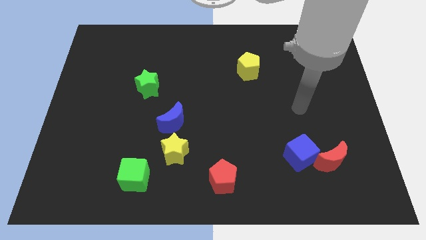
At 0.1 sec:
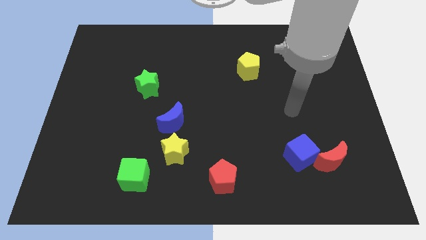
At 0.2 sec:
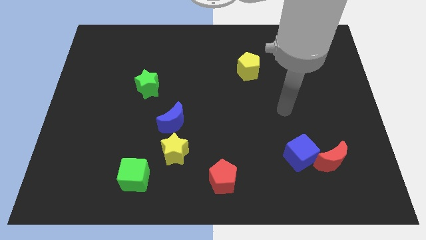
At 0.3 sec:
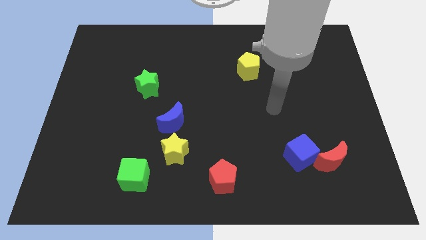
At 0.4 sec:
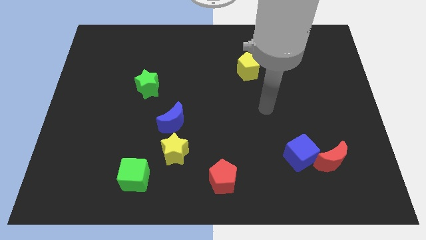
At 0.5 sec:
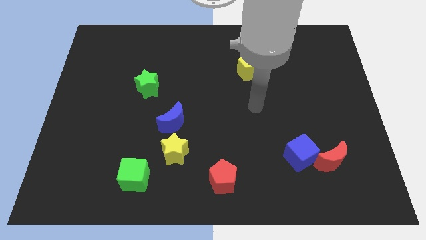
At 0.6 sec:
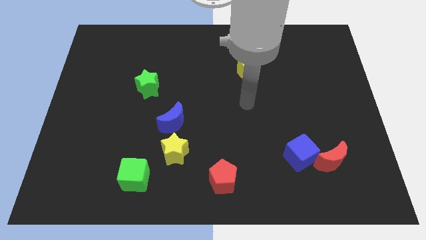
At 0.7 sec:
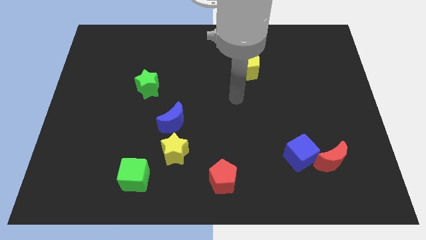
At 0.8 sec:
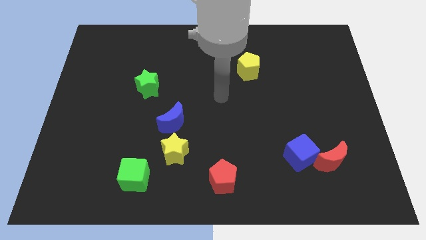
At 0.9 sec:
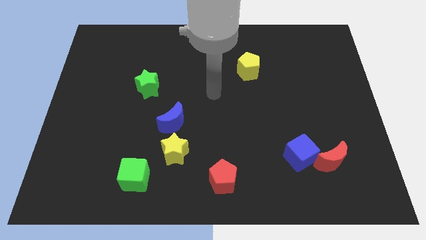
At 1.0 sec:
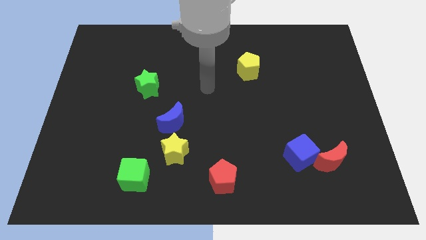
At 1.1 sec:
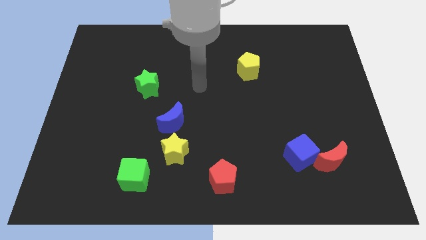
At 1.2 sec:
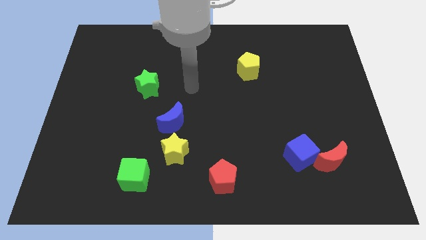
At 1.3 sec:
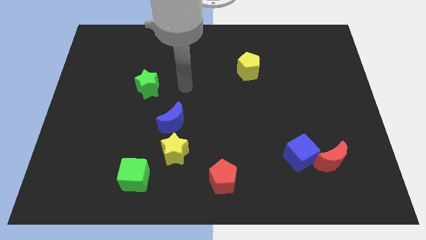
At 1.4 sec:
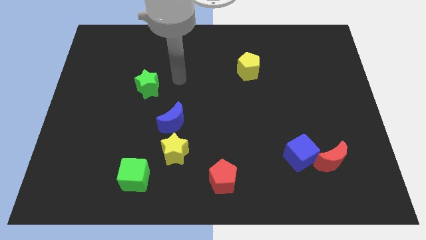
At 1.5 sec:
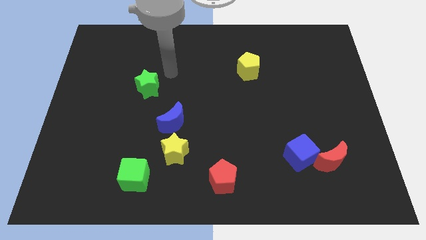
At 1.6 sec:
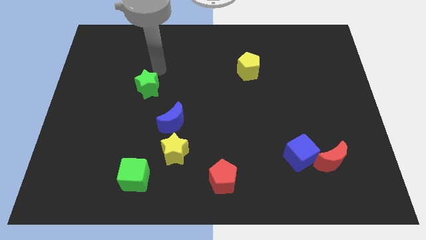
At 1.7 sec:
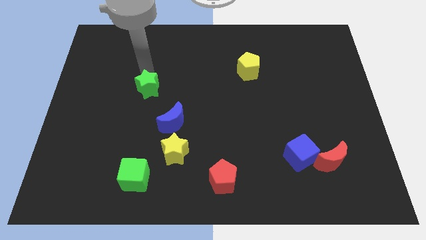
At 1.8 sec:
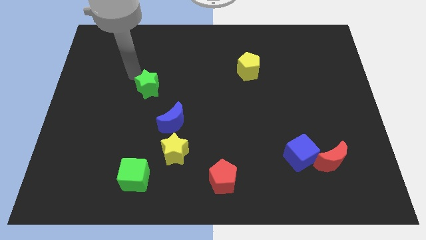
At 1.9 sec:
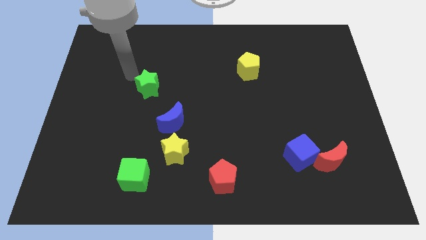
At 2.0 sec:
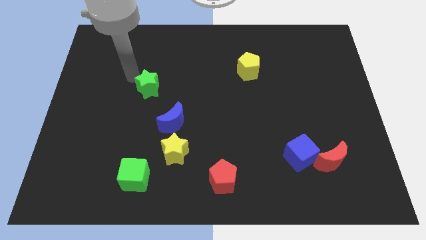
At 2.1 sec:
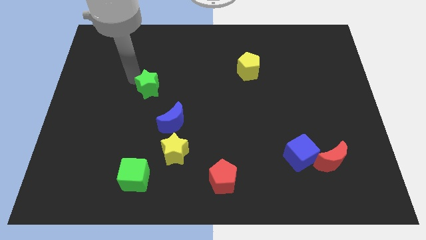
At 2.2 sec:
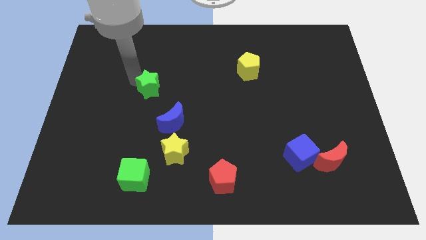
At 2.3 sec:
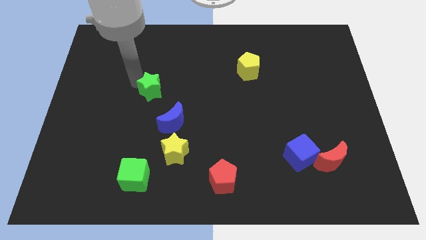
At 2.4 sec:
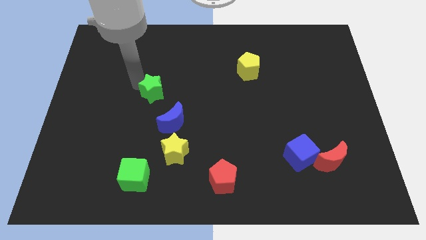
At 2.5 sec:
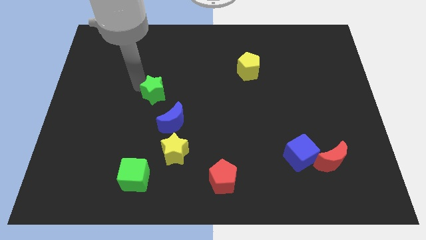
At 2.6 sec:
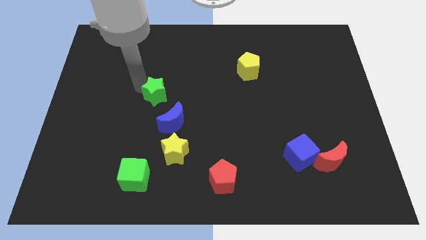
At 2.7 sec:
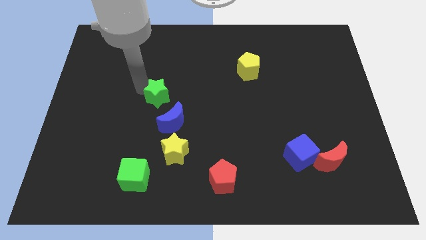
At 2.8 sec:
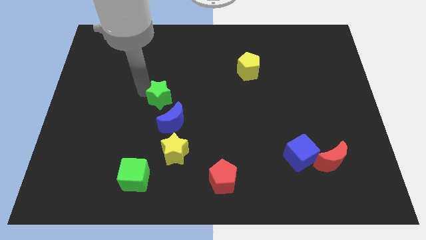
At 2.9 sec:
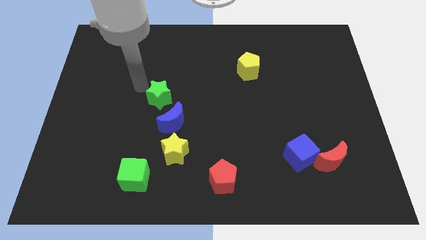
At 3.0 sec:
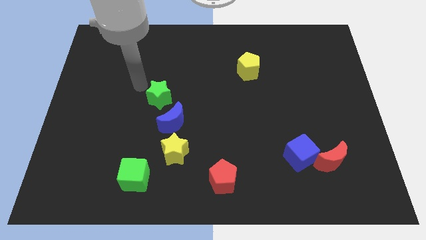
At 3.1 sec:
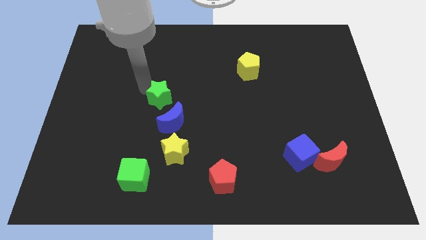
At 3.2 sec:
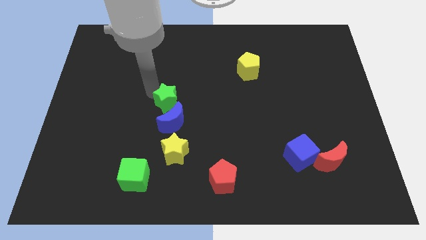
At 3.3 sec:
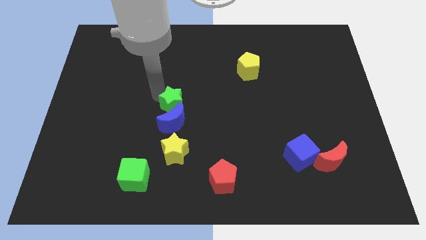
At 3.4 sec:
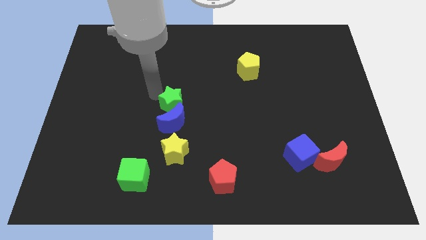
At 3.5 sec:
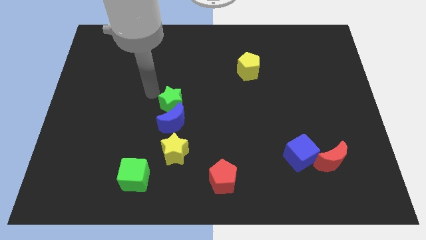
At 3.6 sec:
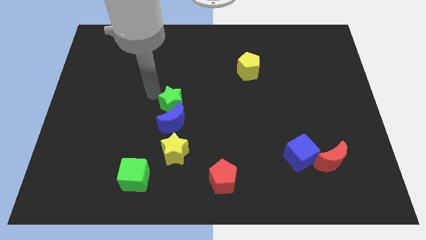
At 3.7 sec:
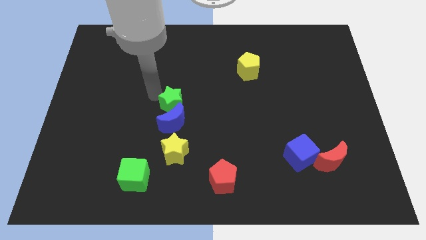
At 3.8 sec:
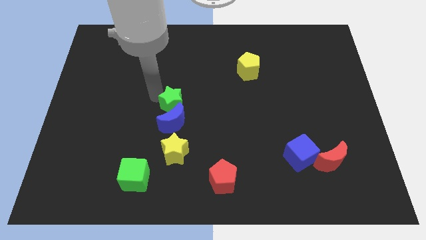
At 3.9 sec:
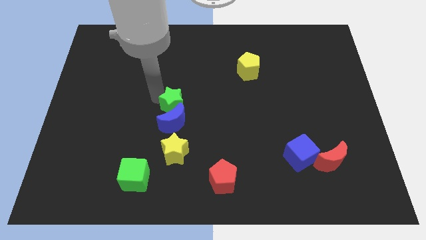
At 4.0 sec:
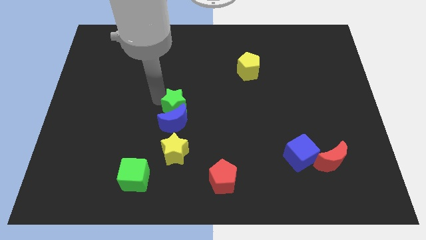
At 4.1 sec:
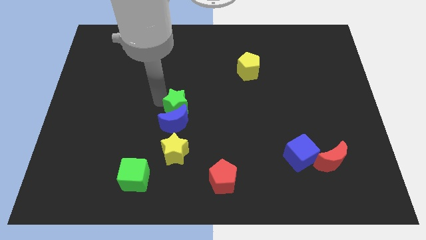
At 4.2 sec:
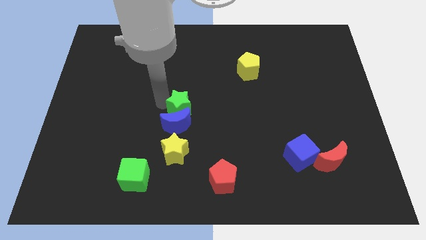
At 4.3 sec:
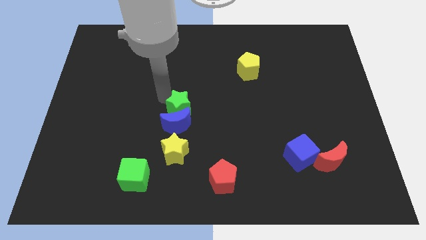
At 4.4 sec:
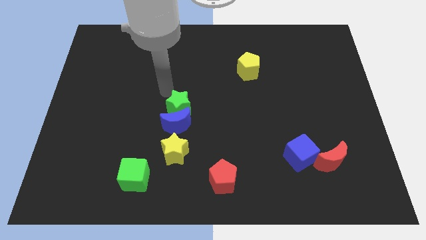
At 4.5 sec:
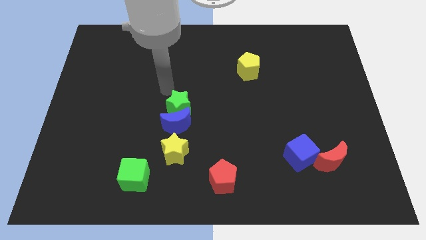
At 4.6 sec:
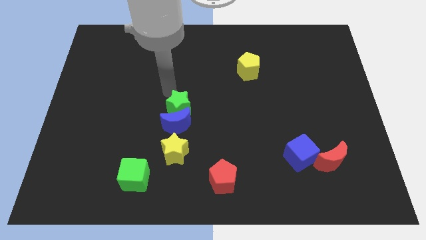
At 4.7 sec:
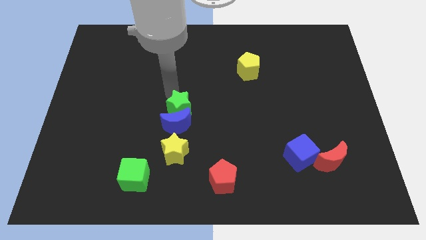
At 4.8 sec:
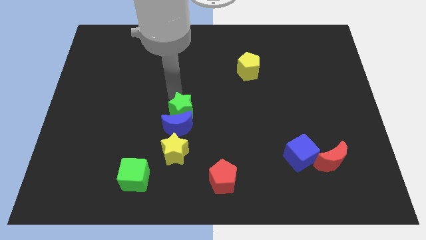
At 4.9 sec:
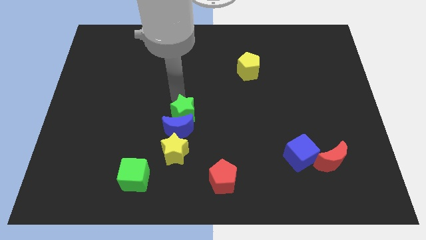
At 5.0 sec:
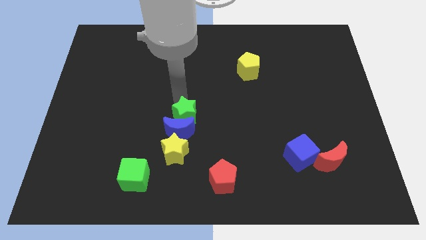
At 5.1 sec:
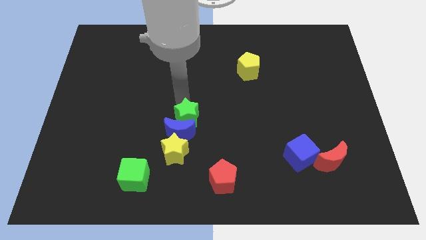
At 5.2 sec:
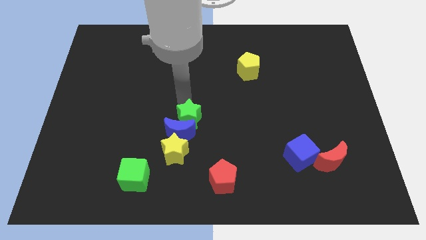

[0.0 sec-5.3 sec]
slide the green star to the top right side of the yellow star

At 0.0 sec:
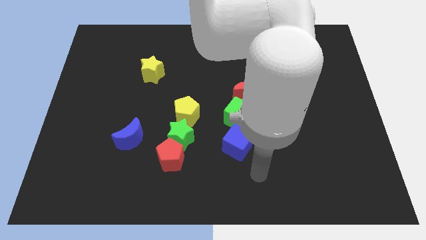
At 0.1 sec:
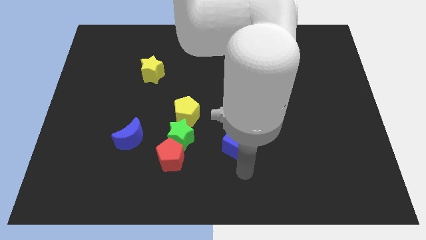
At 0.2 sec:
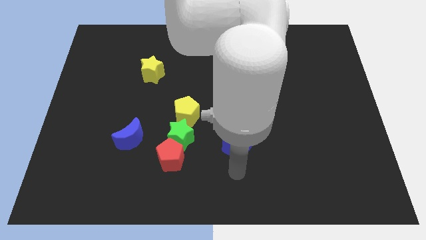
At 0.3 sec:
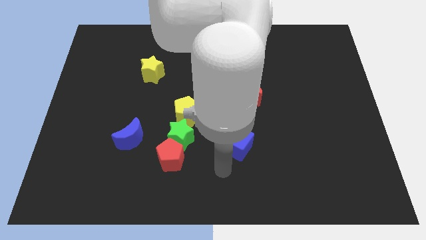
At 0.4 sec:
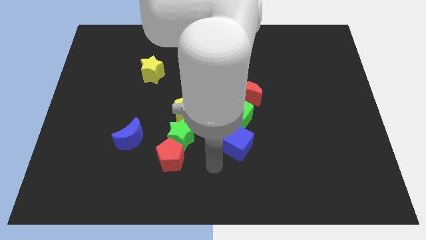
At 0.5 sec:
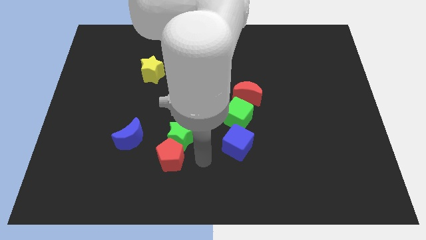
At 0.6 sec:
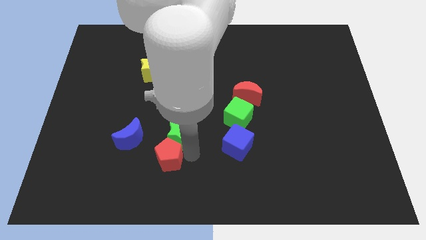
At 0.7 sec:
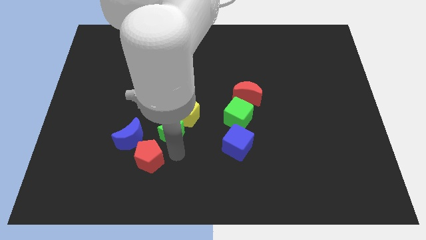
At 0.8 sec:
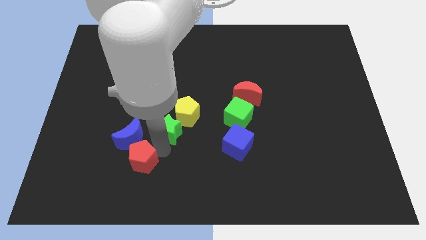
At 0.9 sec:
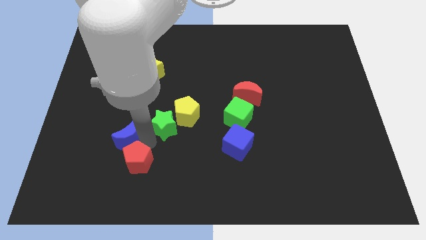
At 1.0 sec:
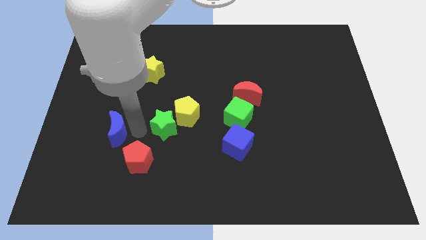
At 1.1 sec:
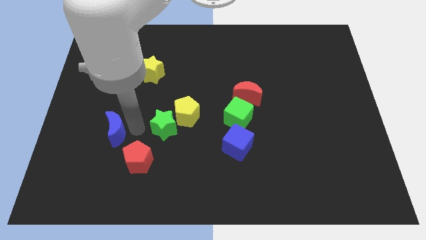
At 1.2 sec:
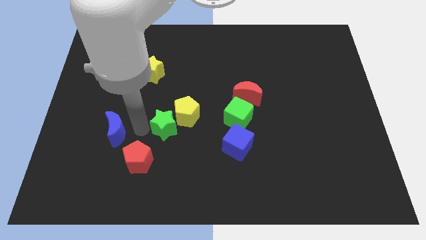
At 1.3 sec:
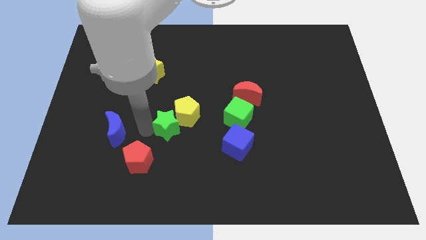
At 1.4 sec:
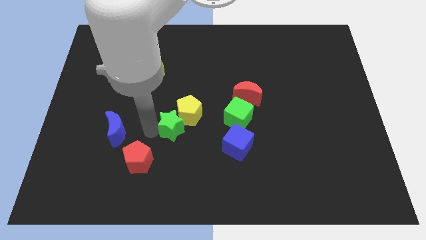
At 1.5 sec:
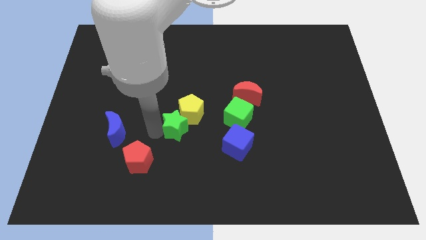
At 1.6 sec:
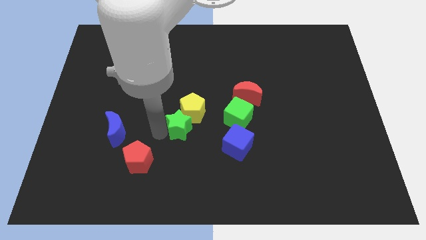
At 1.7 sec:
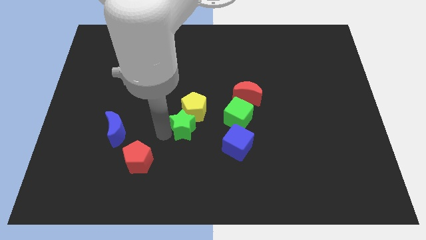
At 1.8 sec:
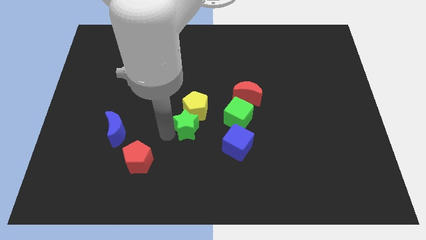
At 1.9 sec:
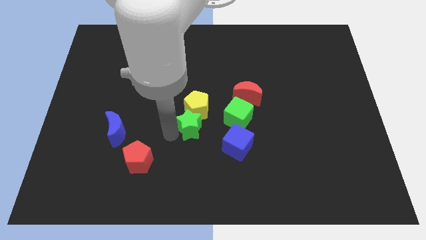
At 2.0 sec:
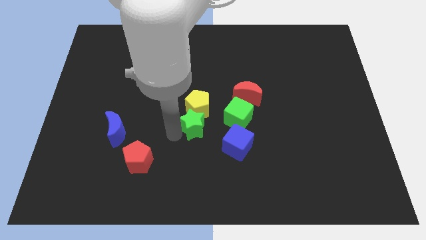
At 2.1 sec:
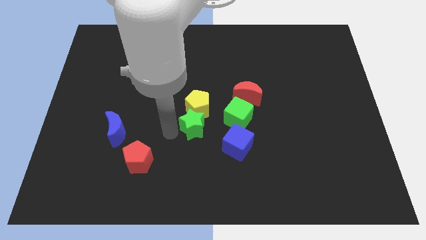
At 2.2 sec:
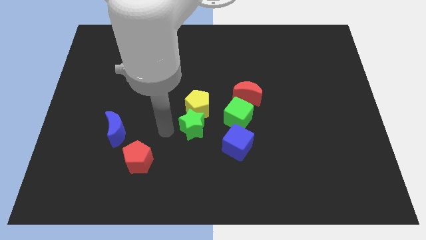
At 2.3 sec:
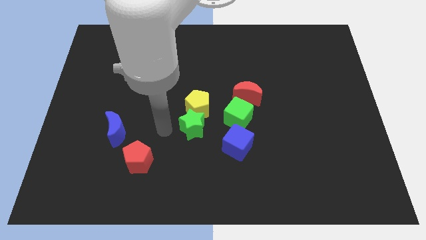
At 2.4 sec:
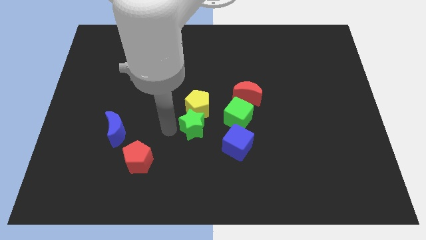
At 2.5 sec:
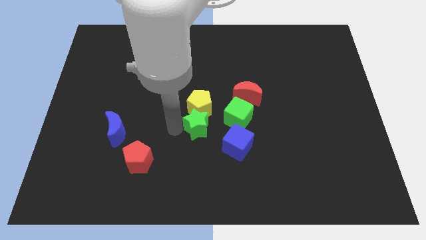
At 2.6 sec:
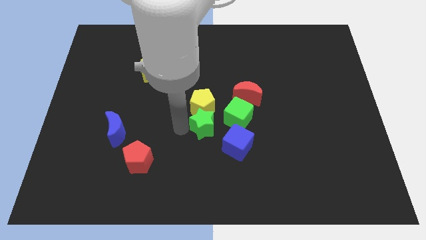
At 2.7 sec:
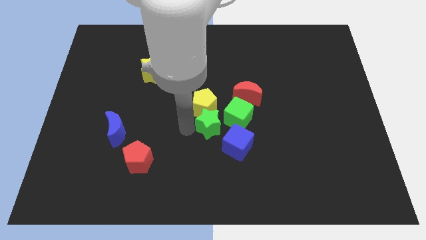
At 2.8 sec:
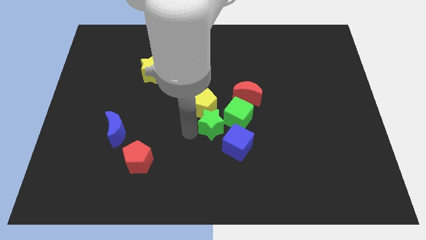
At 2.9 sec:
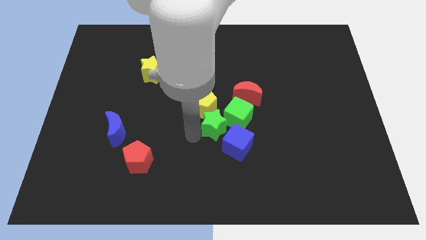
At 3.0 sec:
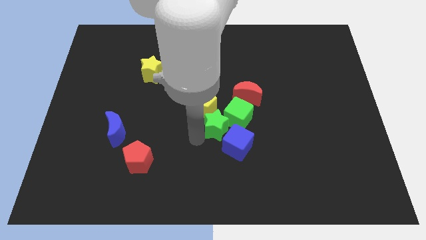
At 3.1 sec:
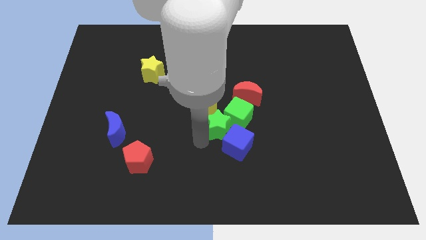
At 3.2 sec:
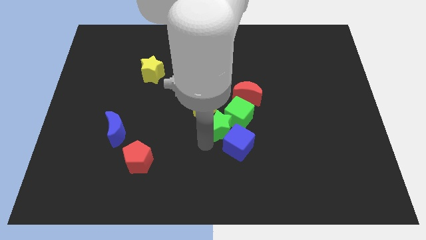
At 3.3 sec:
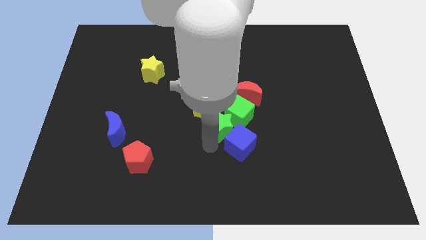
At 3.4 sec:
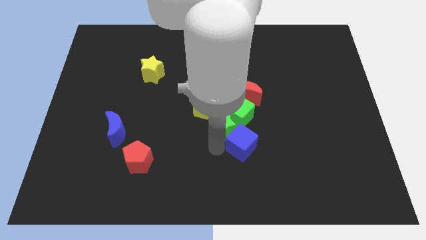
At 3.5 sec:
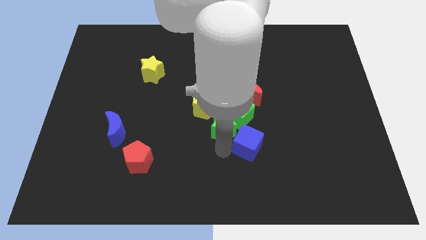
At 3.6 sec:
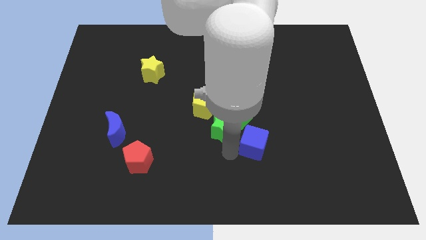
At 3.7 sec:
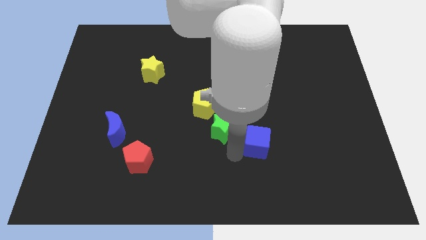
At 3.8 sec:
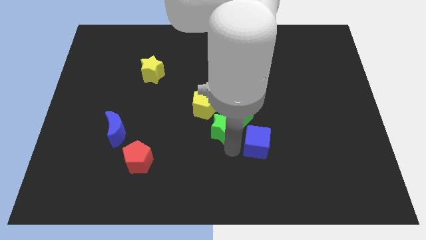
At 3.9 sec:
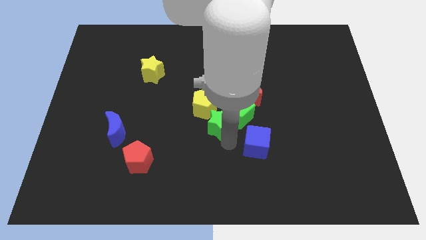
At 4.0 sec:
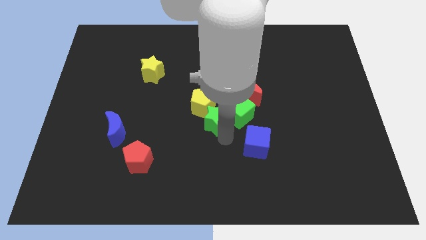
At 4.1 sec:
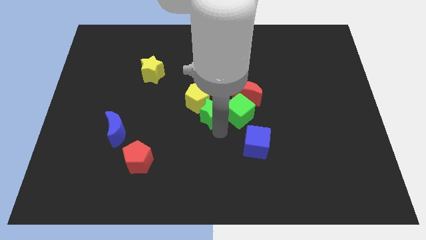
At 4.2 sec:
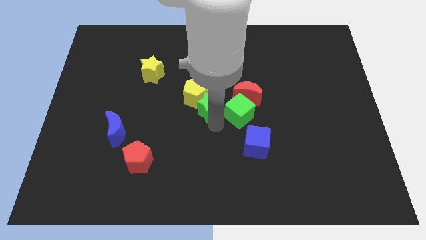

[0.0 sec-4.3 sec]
push the green star left of the red moon
